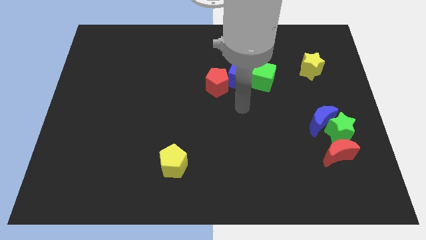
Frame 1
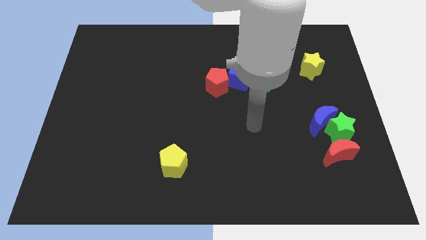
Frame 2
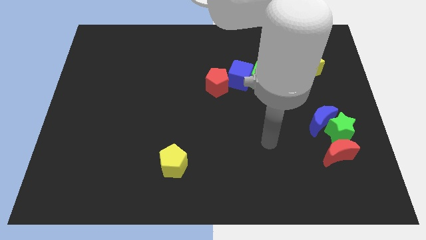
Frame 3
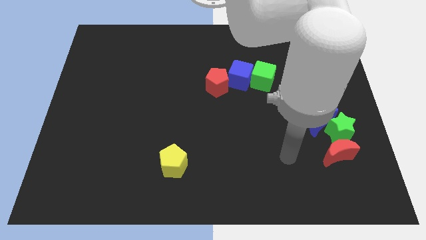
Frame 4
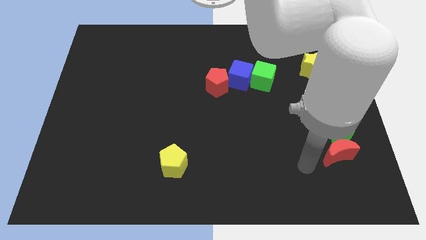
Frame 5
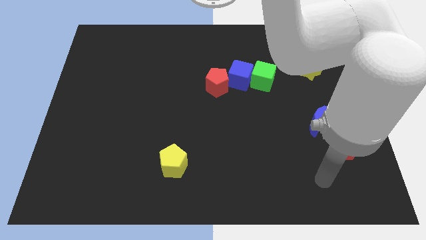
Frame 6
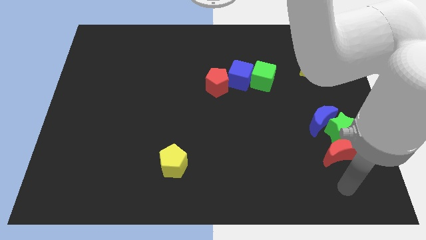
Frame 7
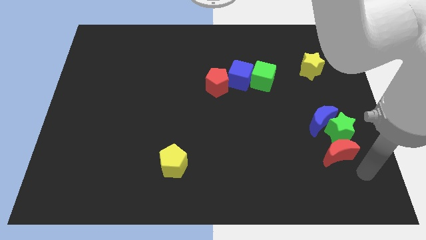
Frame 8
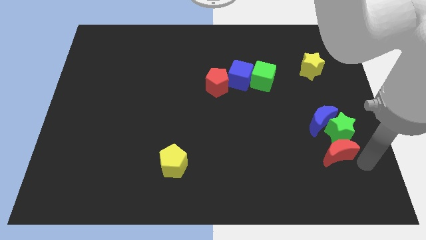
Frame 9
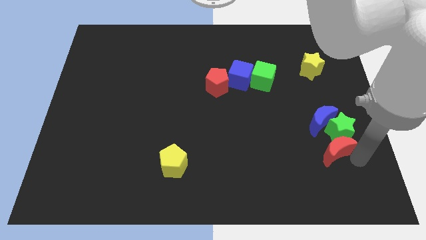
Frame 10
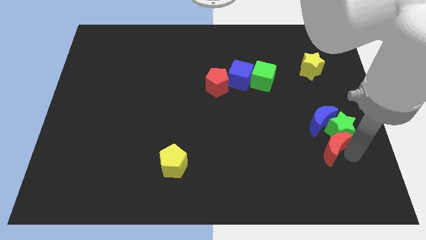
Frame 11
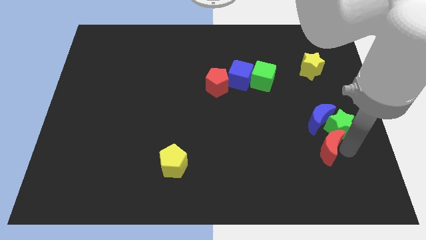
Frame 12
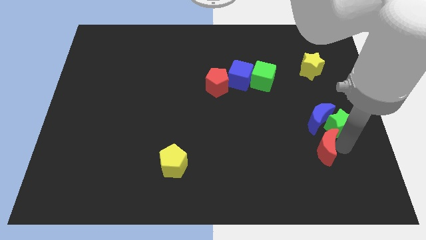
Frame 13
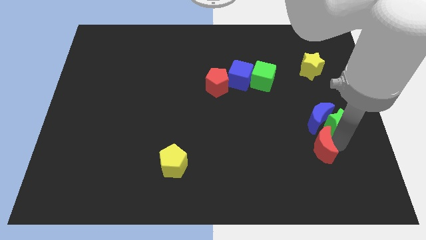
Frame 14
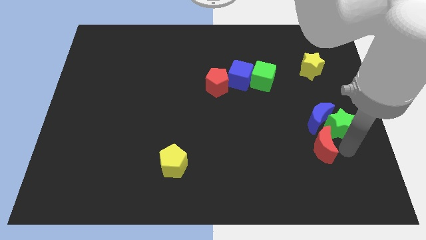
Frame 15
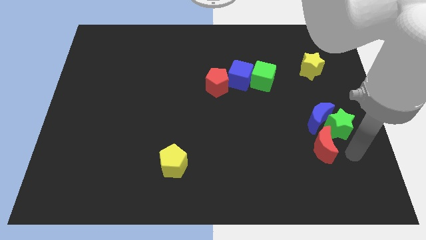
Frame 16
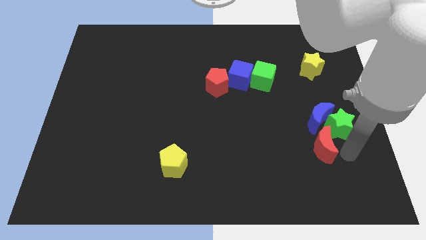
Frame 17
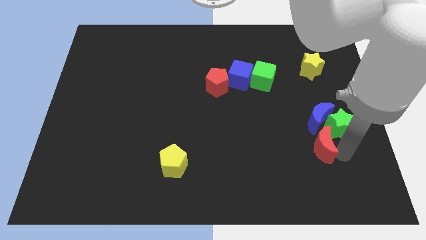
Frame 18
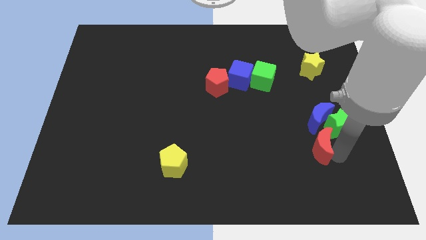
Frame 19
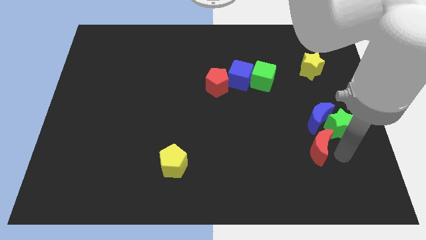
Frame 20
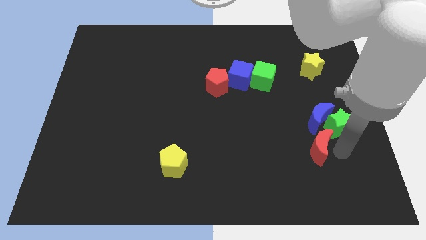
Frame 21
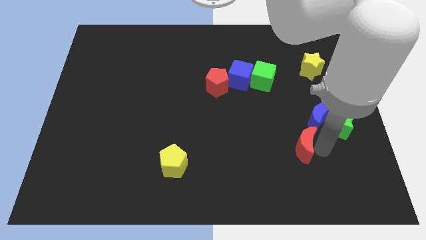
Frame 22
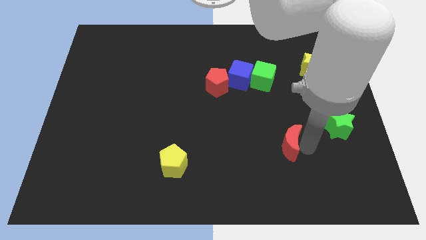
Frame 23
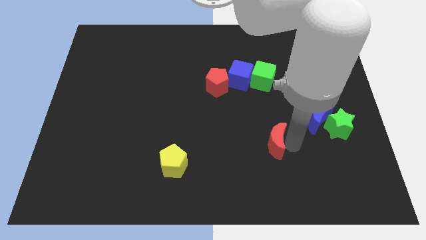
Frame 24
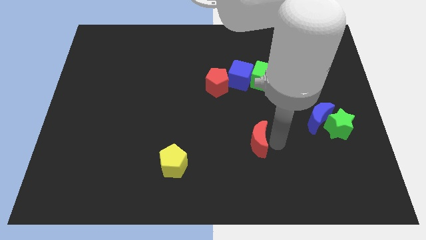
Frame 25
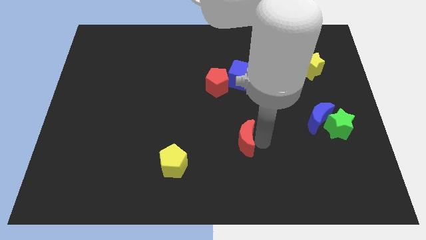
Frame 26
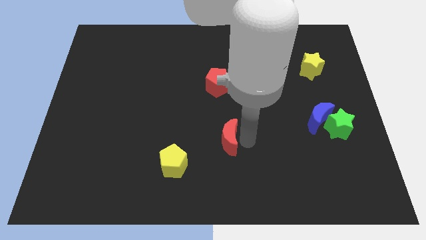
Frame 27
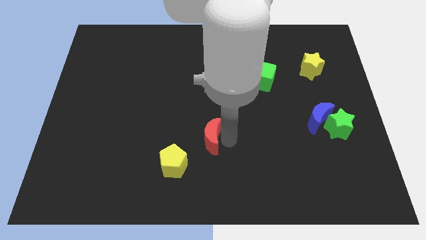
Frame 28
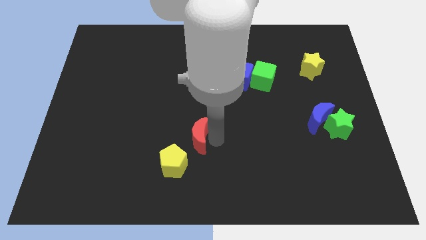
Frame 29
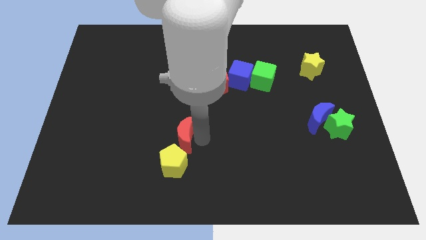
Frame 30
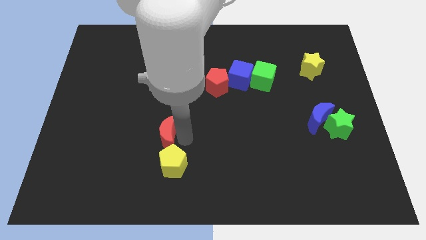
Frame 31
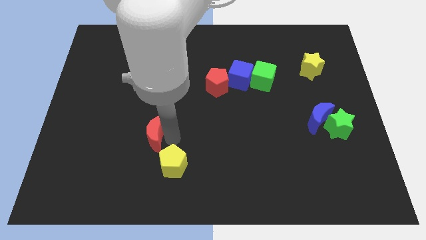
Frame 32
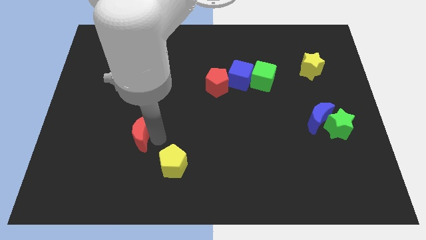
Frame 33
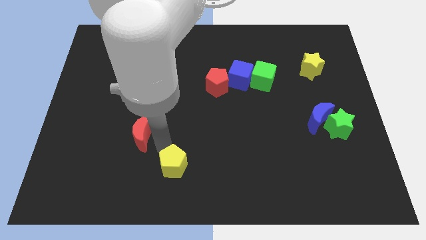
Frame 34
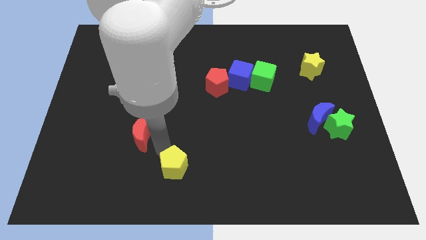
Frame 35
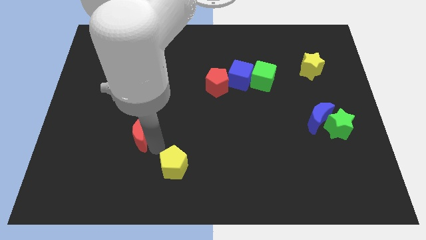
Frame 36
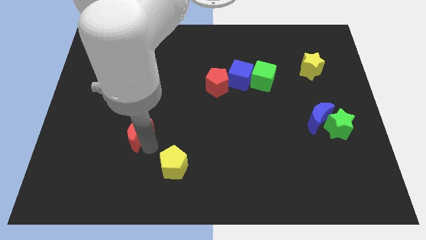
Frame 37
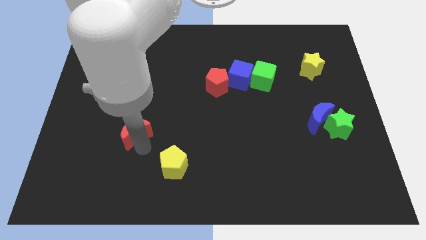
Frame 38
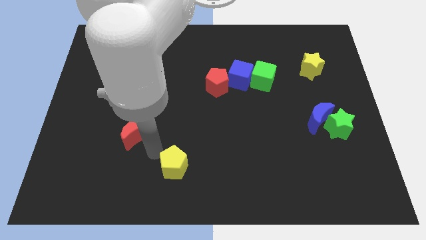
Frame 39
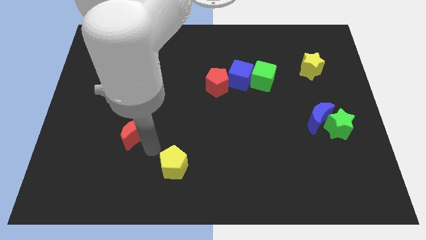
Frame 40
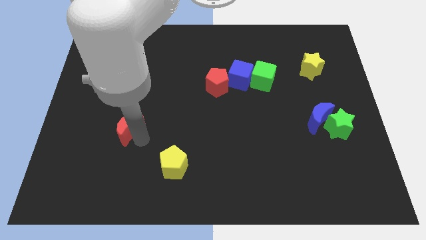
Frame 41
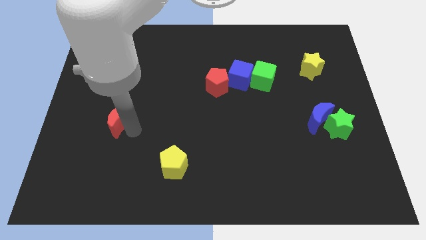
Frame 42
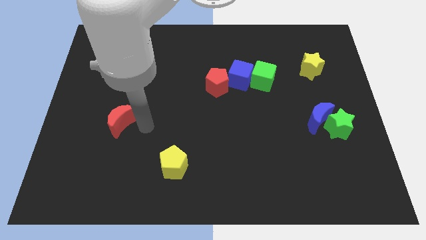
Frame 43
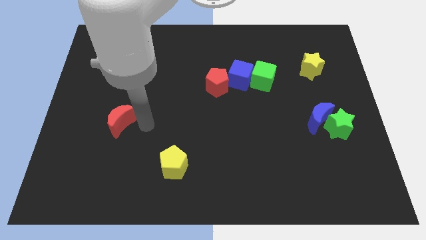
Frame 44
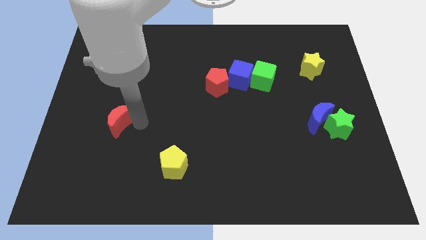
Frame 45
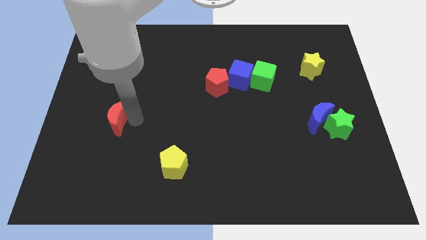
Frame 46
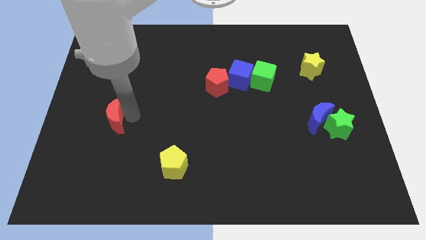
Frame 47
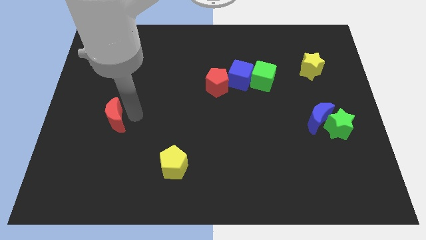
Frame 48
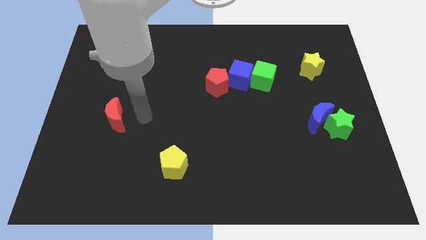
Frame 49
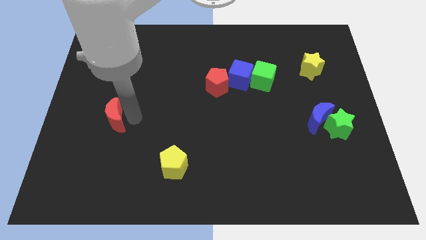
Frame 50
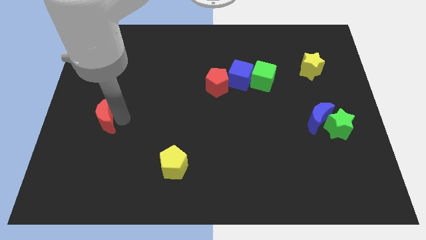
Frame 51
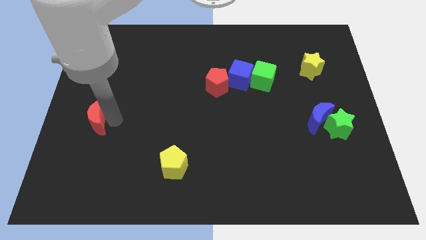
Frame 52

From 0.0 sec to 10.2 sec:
push the red moon to the center left

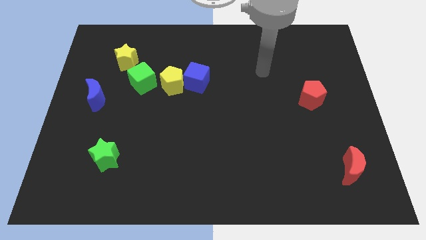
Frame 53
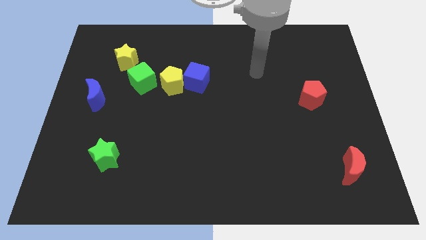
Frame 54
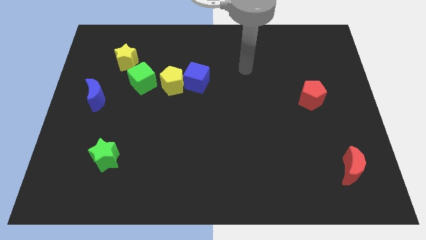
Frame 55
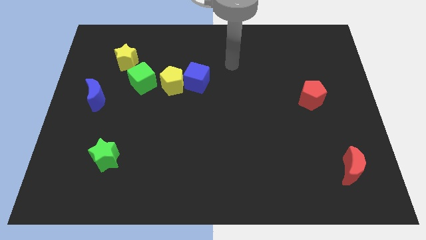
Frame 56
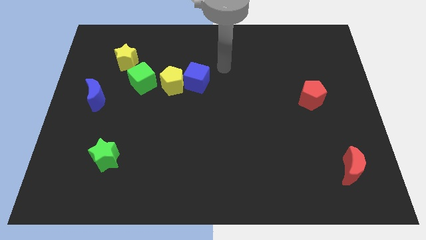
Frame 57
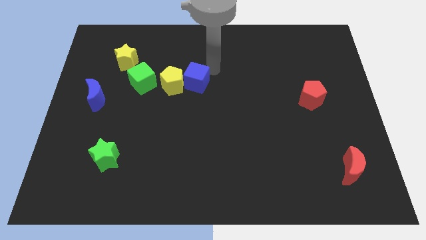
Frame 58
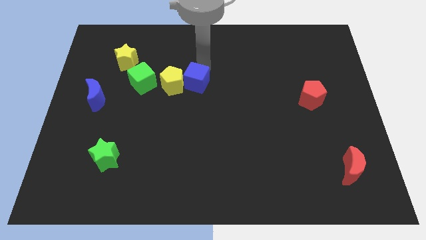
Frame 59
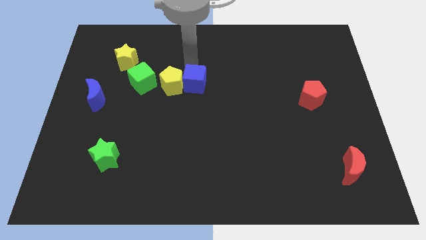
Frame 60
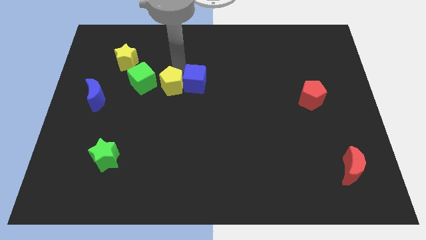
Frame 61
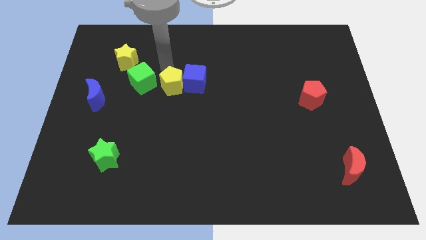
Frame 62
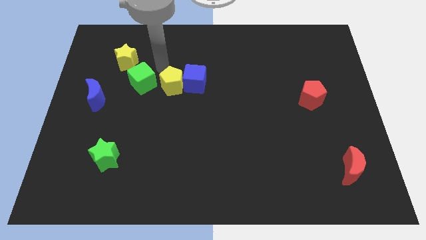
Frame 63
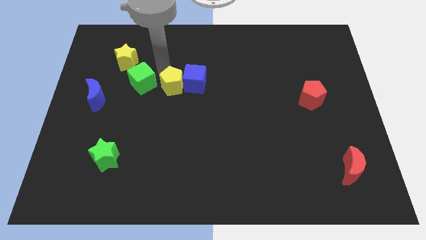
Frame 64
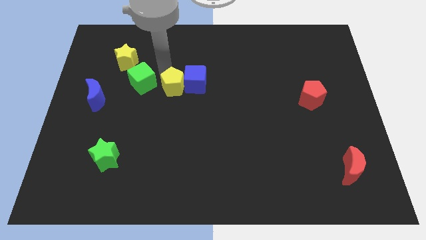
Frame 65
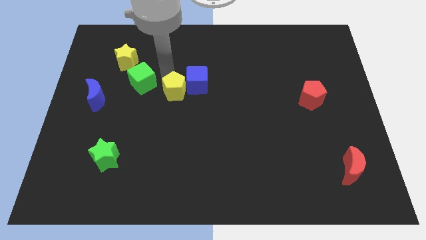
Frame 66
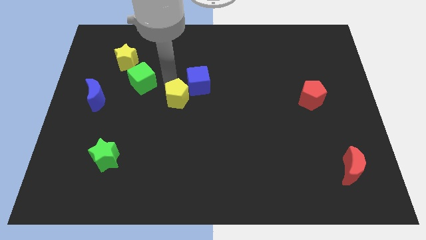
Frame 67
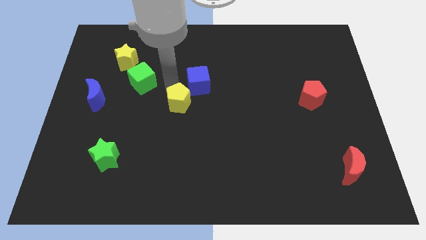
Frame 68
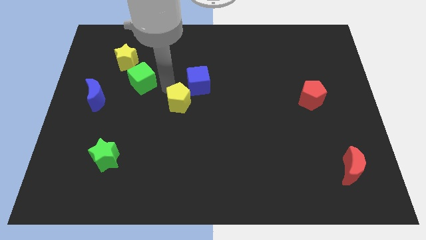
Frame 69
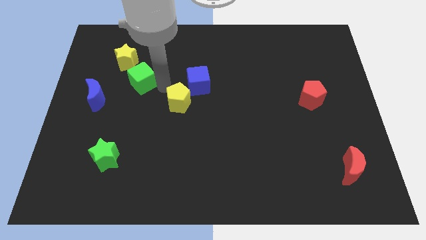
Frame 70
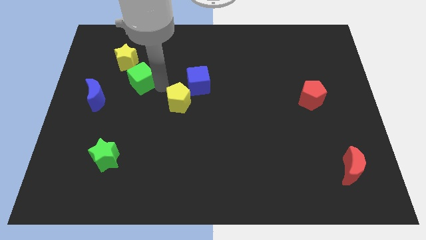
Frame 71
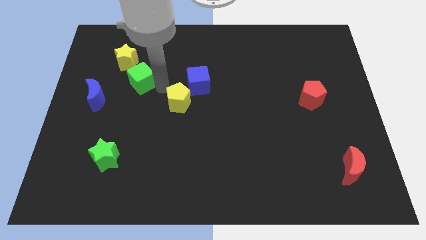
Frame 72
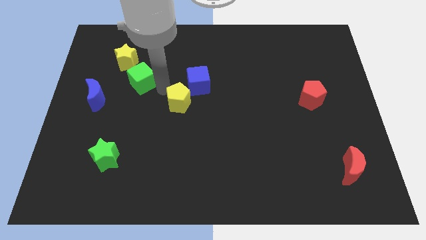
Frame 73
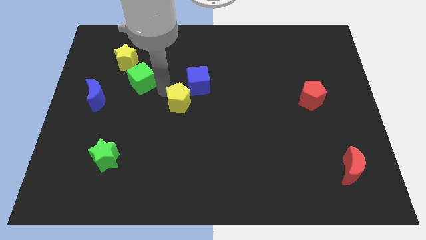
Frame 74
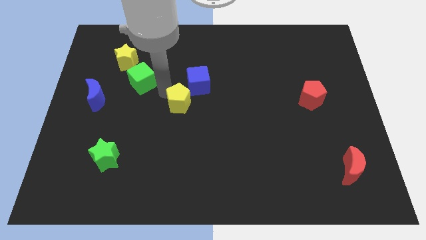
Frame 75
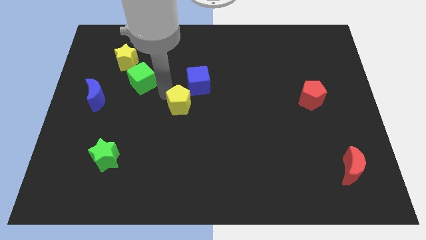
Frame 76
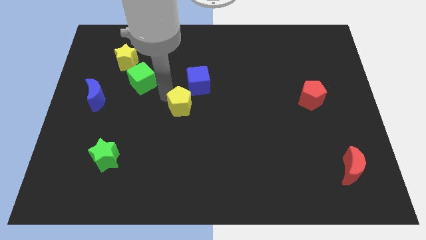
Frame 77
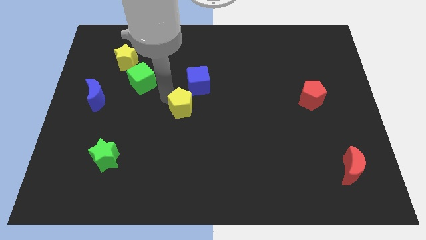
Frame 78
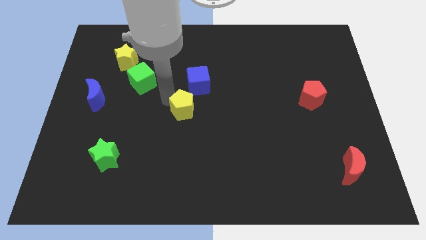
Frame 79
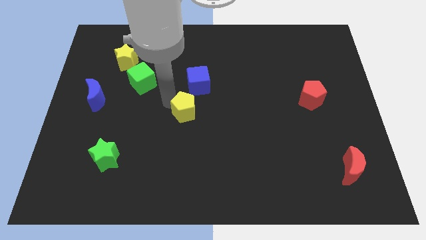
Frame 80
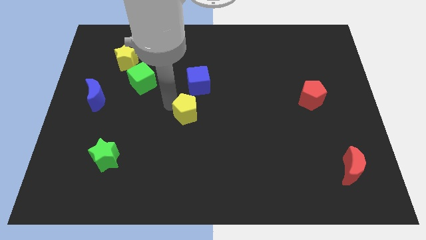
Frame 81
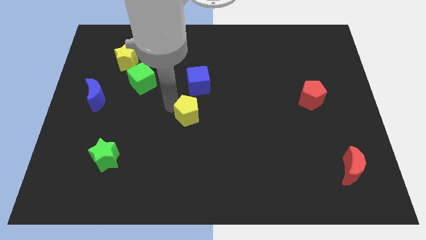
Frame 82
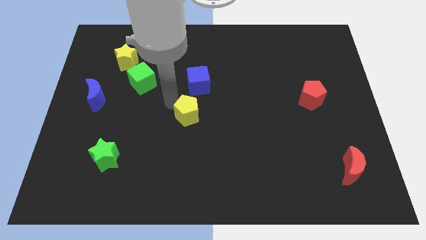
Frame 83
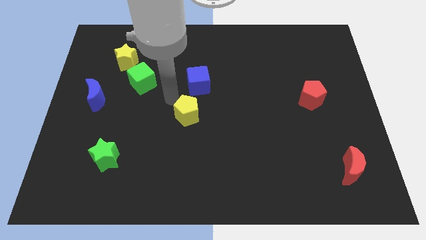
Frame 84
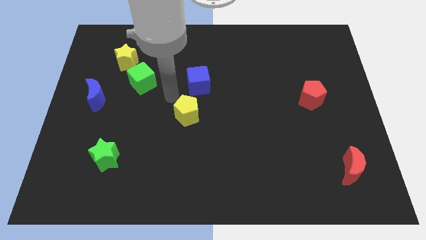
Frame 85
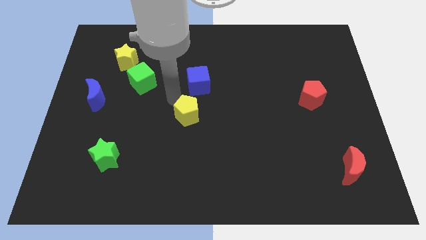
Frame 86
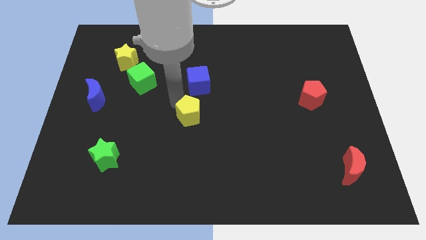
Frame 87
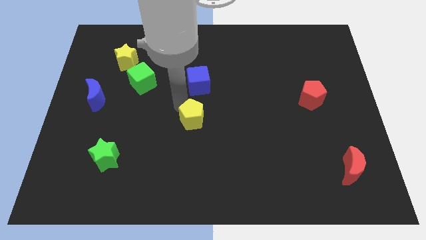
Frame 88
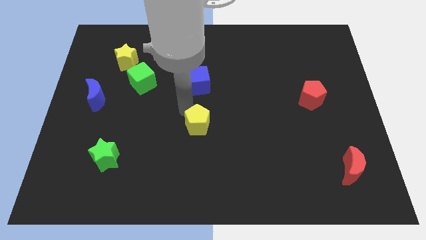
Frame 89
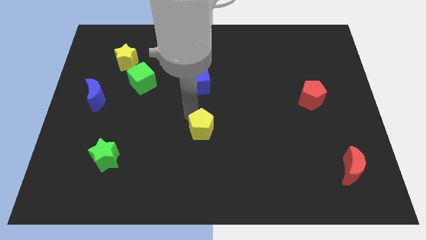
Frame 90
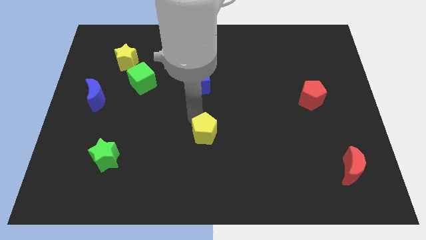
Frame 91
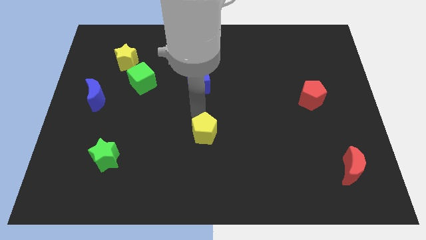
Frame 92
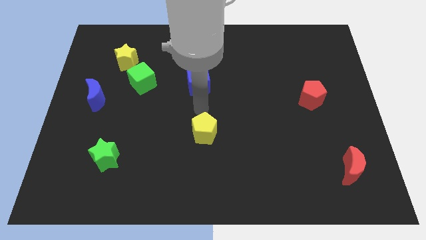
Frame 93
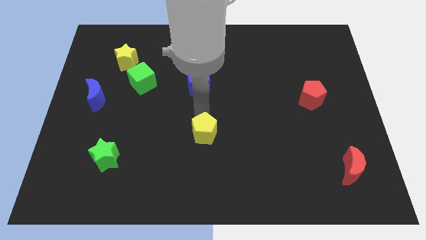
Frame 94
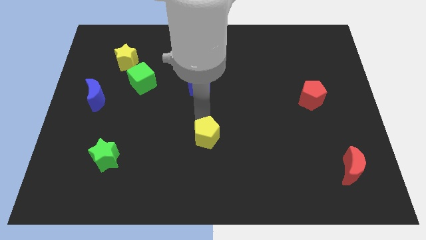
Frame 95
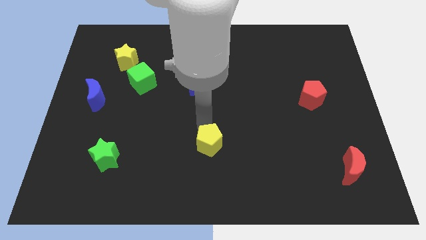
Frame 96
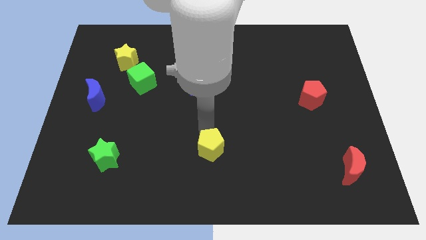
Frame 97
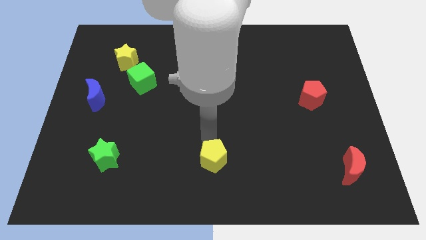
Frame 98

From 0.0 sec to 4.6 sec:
push the yellow pentagon to the bottom side
